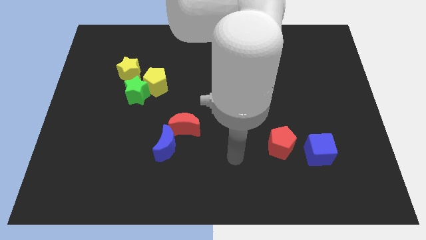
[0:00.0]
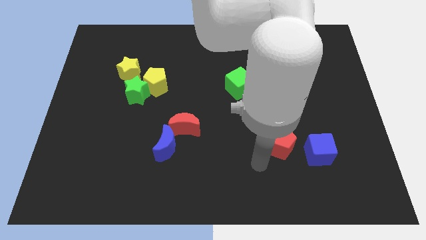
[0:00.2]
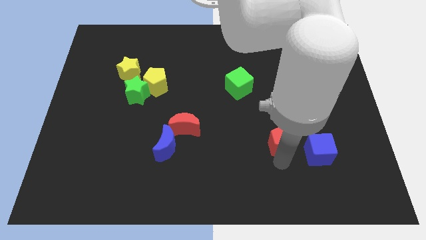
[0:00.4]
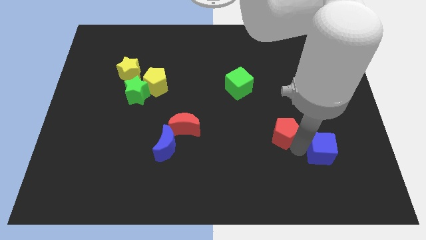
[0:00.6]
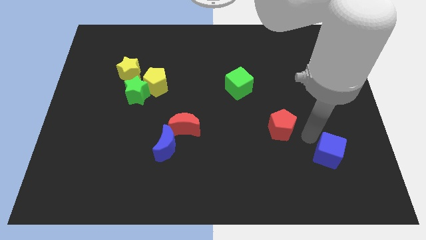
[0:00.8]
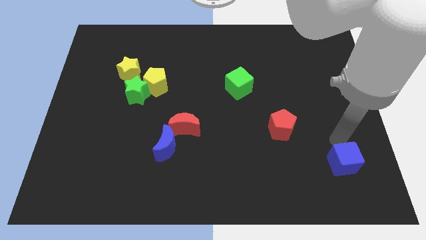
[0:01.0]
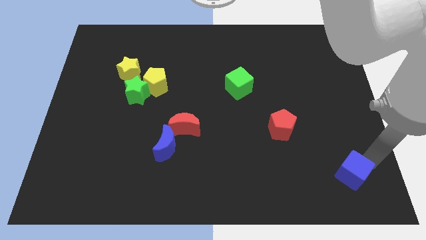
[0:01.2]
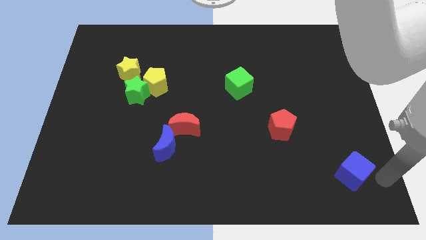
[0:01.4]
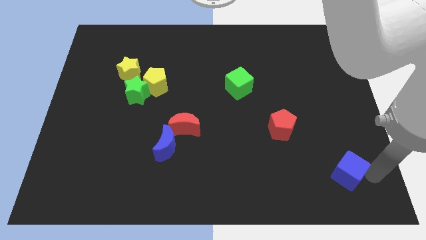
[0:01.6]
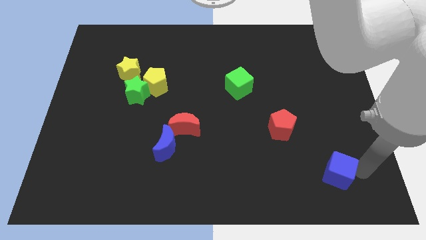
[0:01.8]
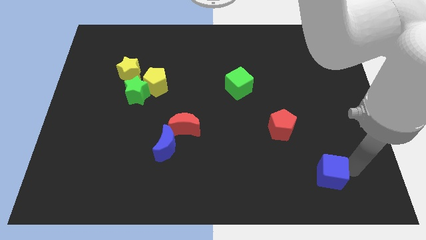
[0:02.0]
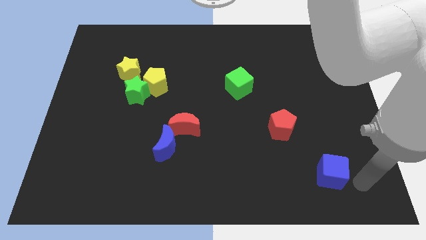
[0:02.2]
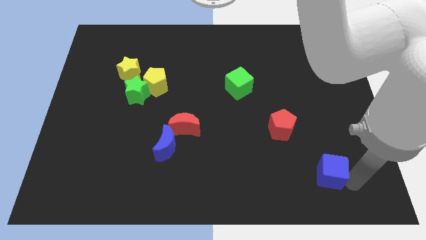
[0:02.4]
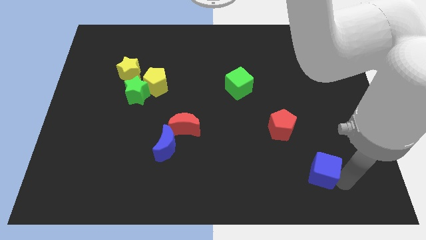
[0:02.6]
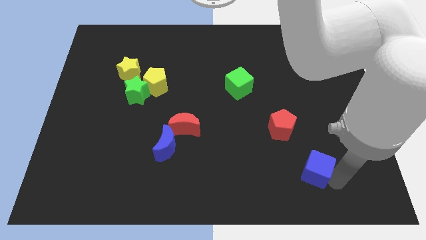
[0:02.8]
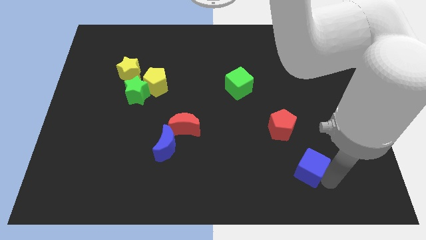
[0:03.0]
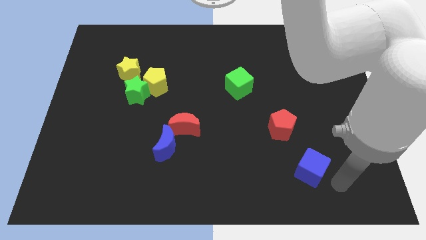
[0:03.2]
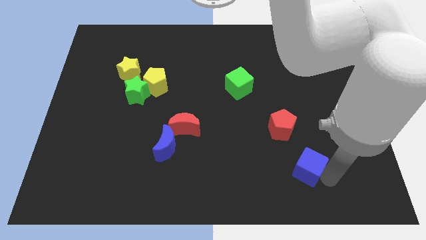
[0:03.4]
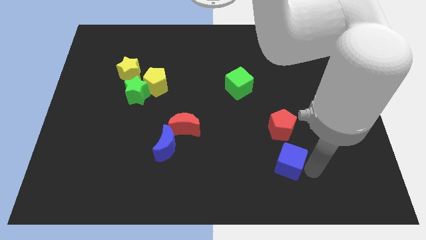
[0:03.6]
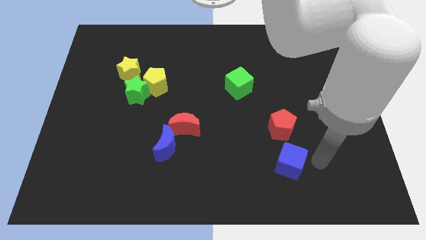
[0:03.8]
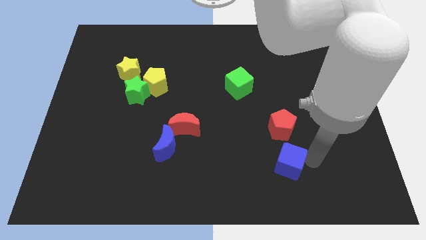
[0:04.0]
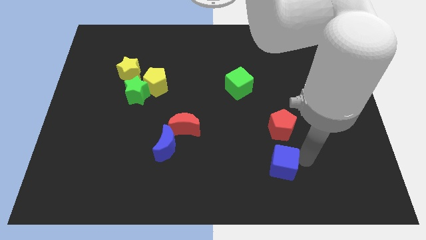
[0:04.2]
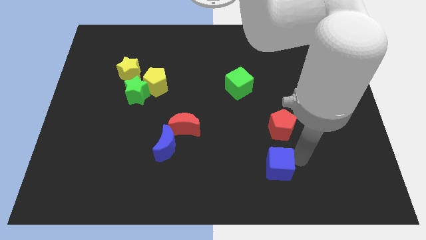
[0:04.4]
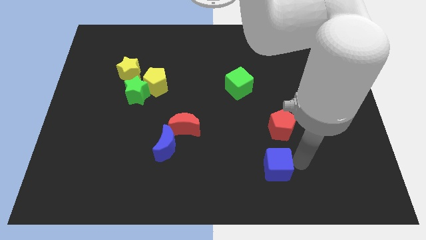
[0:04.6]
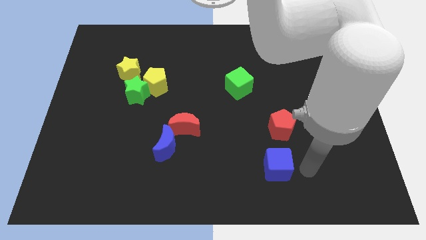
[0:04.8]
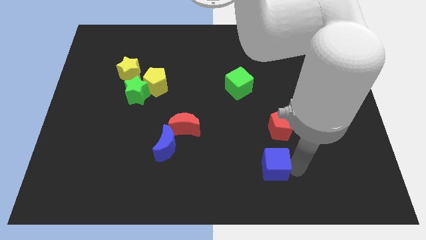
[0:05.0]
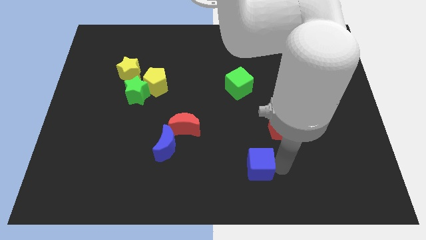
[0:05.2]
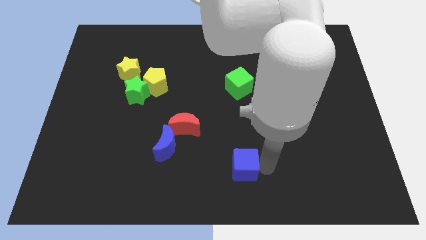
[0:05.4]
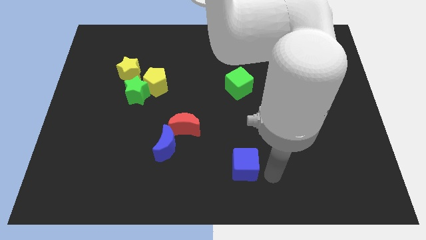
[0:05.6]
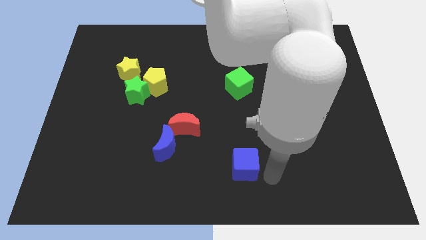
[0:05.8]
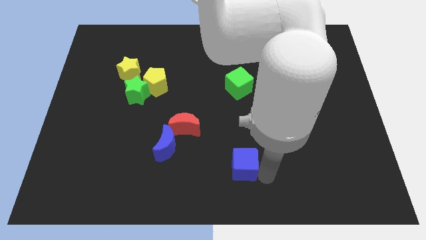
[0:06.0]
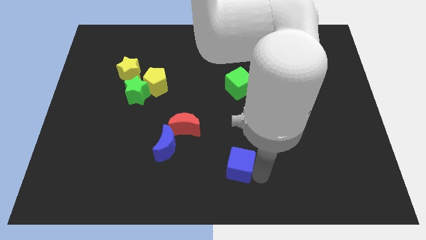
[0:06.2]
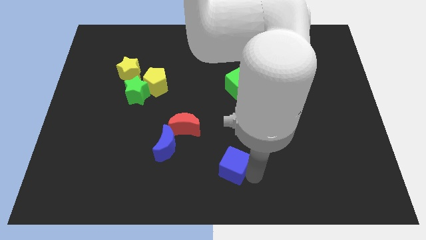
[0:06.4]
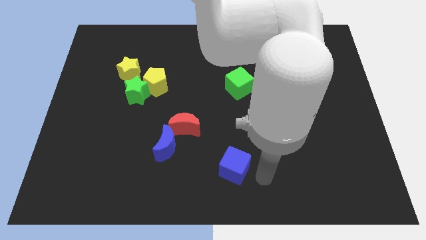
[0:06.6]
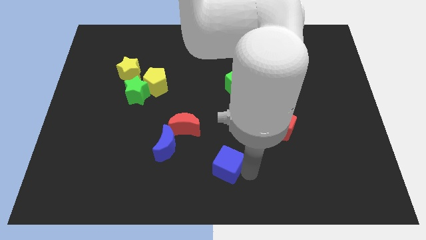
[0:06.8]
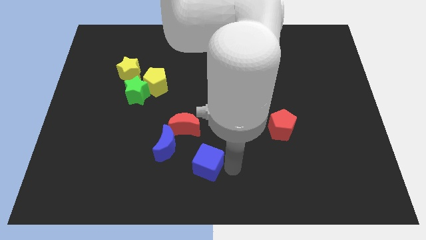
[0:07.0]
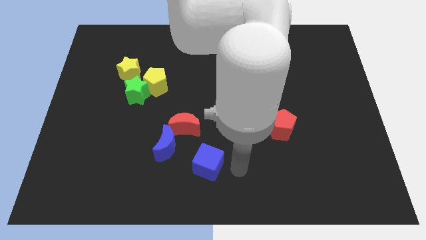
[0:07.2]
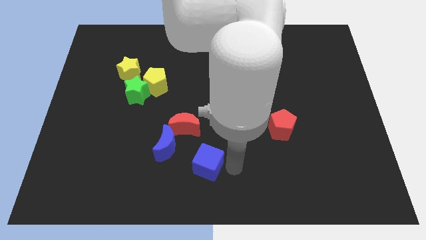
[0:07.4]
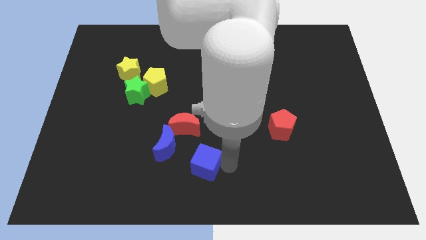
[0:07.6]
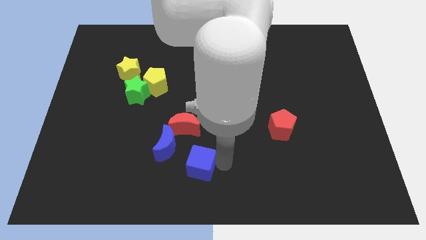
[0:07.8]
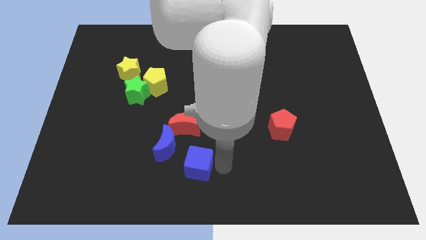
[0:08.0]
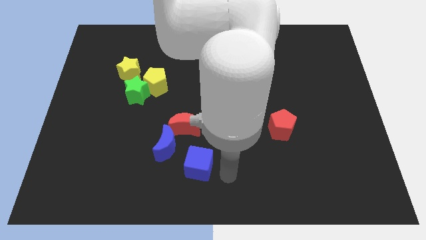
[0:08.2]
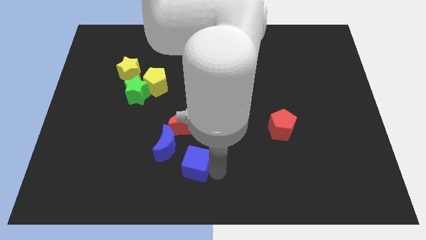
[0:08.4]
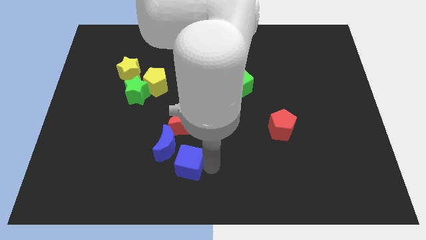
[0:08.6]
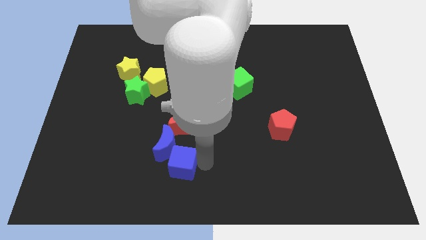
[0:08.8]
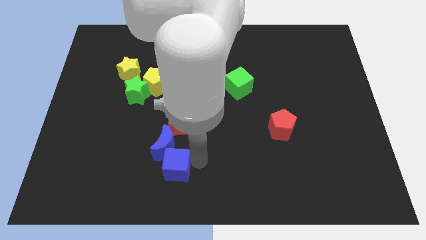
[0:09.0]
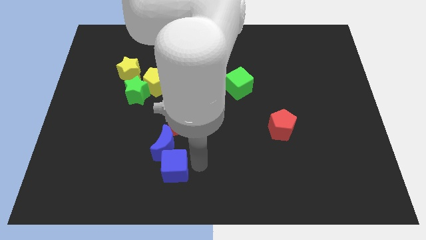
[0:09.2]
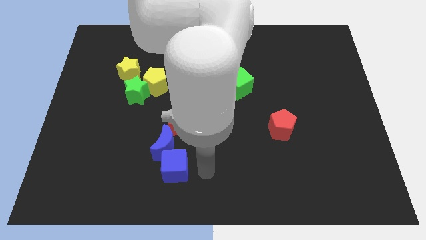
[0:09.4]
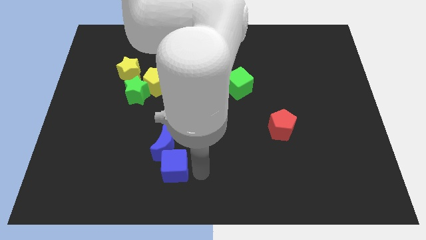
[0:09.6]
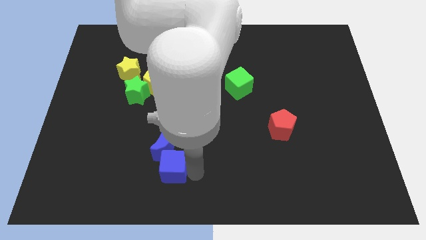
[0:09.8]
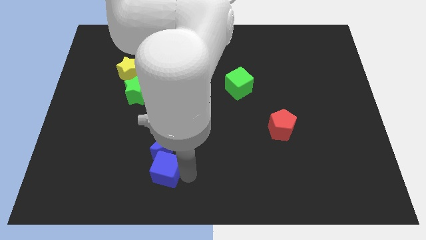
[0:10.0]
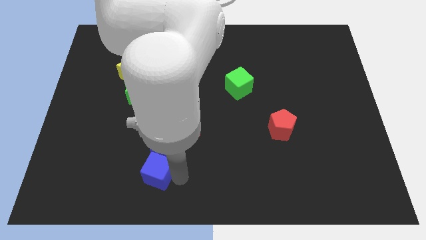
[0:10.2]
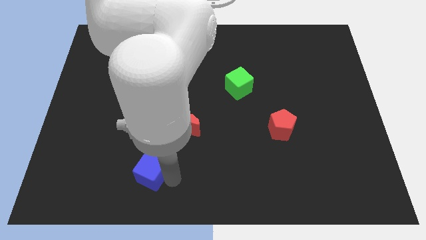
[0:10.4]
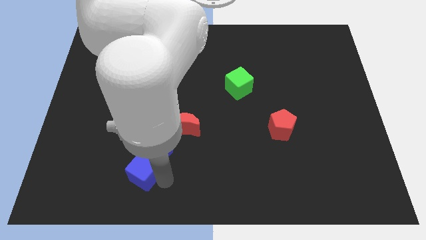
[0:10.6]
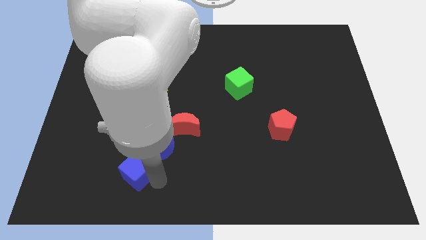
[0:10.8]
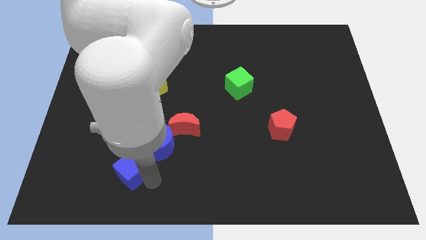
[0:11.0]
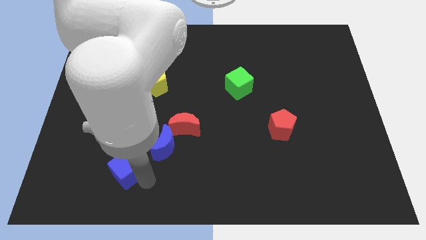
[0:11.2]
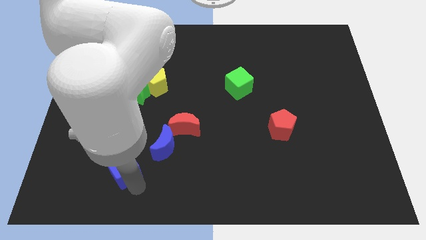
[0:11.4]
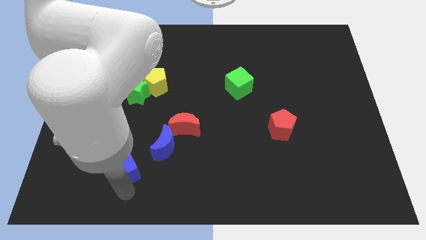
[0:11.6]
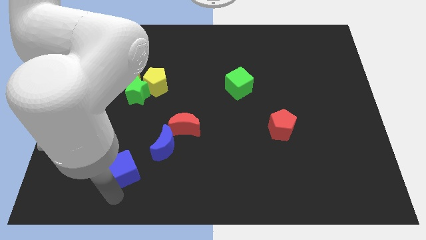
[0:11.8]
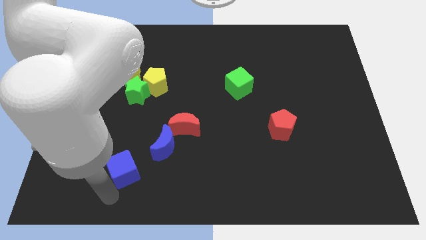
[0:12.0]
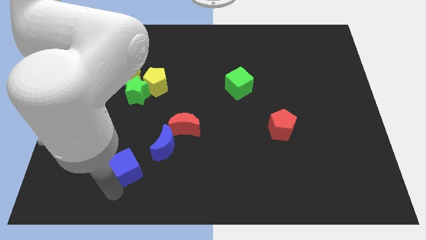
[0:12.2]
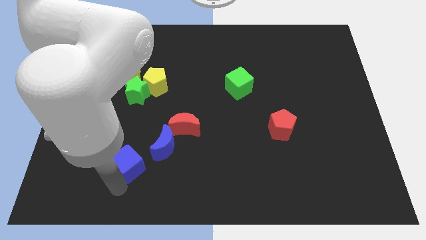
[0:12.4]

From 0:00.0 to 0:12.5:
move the blue cube to the left of the blue moon

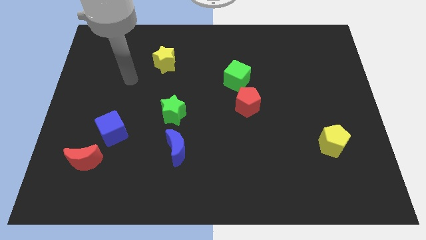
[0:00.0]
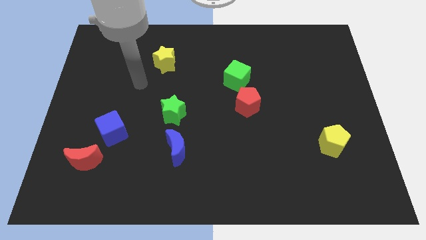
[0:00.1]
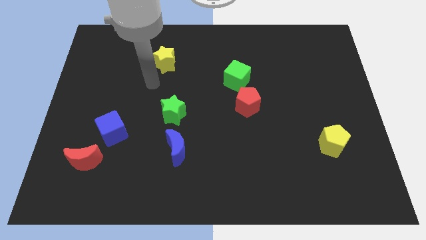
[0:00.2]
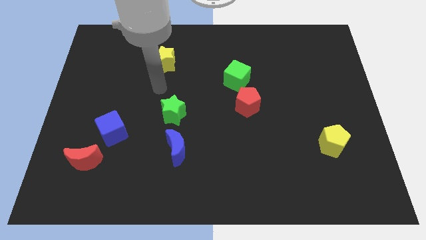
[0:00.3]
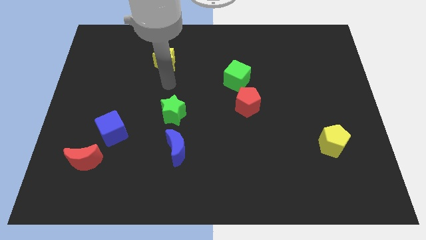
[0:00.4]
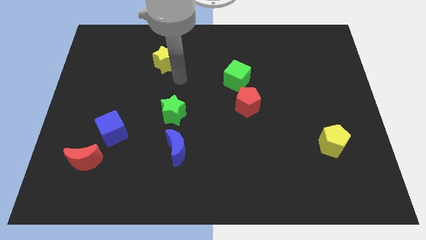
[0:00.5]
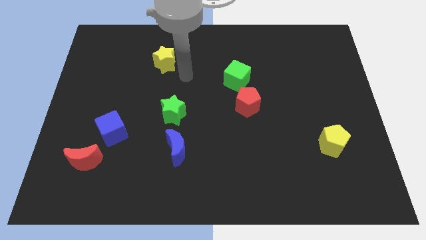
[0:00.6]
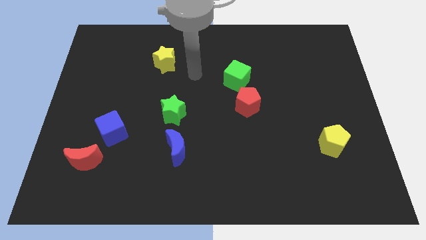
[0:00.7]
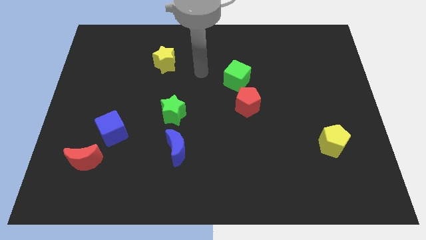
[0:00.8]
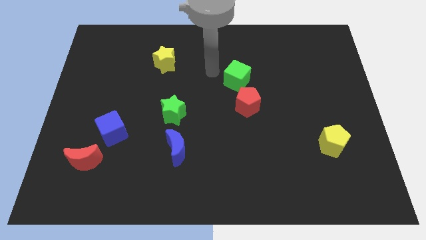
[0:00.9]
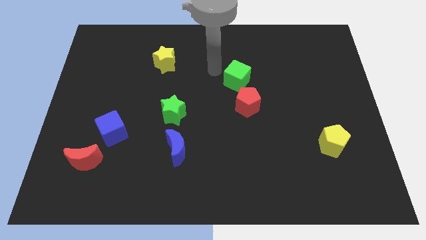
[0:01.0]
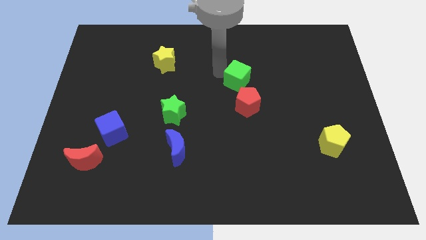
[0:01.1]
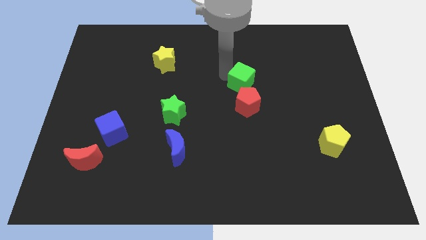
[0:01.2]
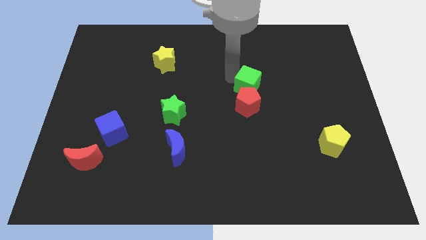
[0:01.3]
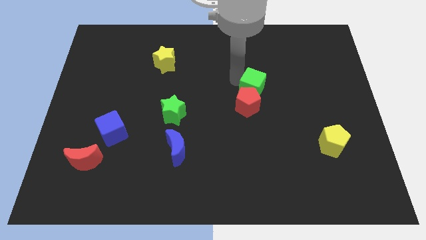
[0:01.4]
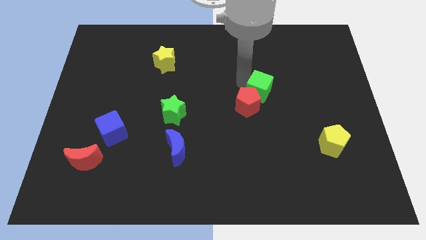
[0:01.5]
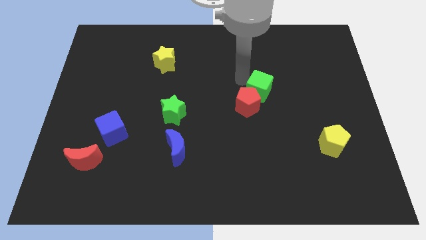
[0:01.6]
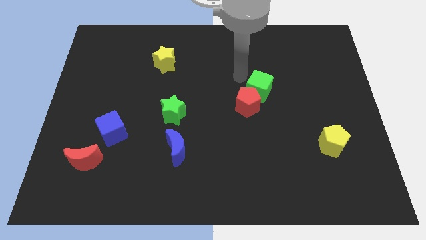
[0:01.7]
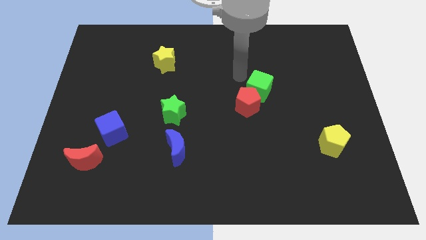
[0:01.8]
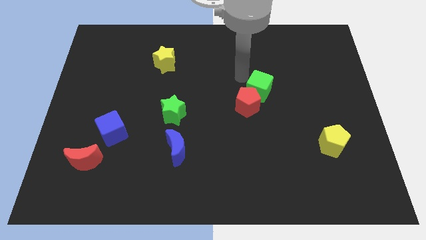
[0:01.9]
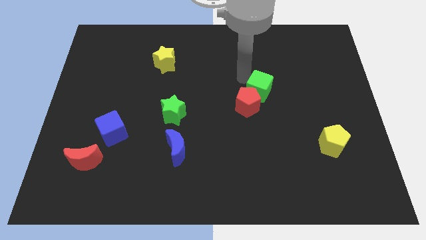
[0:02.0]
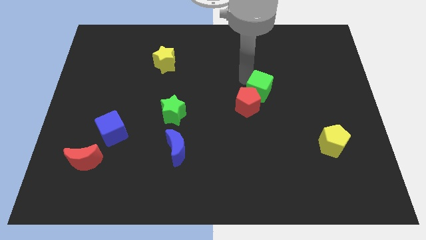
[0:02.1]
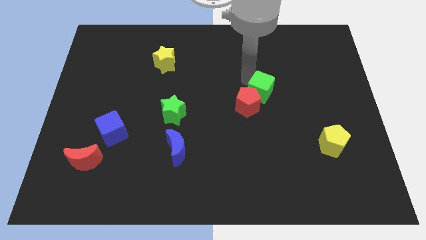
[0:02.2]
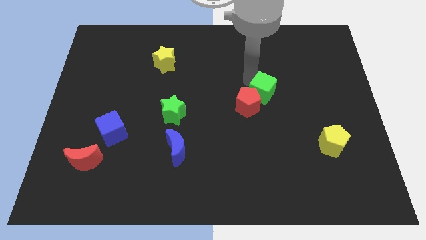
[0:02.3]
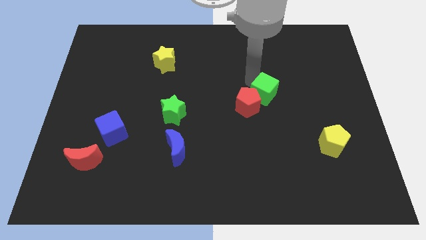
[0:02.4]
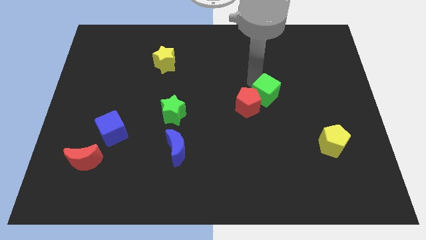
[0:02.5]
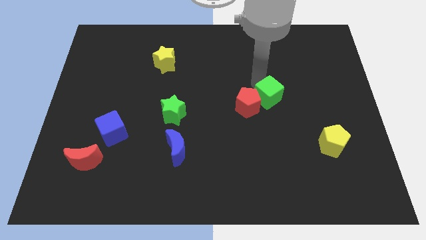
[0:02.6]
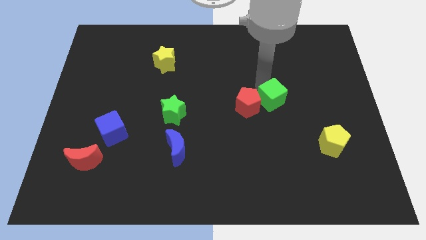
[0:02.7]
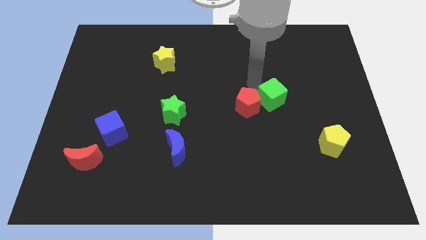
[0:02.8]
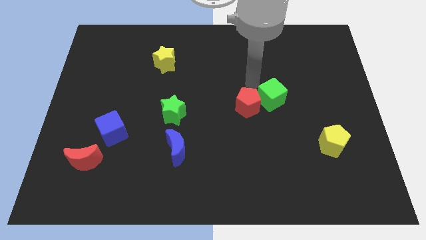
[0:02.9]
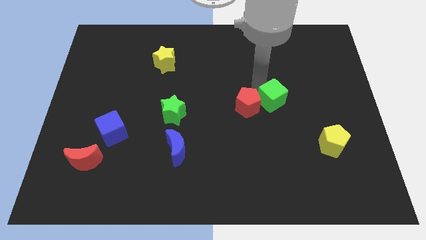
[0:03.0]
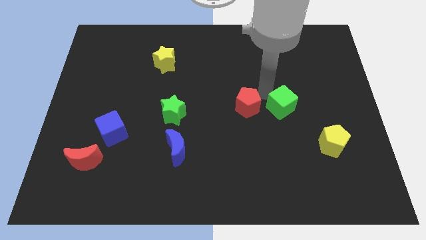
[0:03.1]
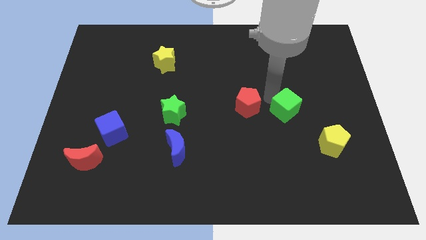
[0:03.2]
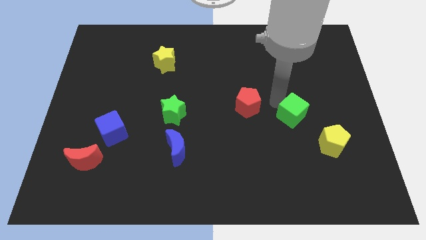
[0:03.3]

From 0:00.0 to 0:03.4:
move the green cube diagonally up and to the left of the yellow pentagon
